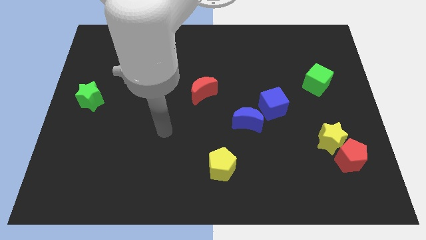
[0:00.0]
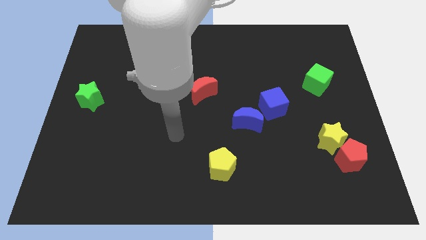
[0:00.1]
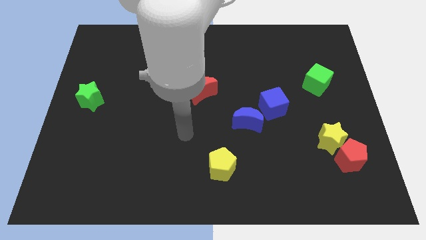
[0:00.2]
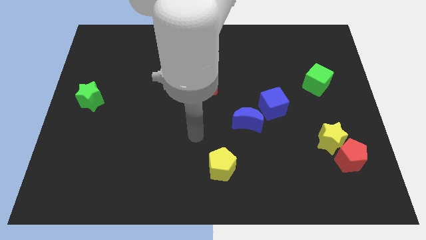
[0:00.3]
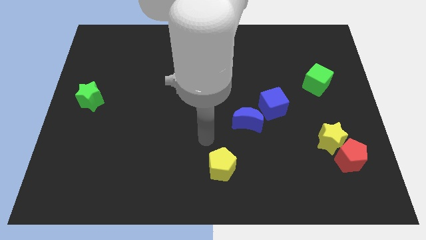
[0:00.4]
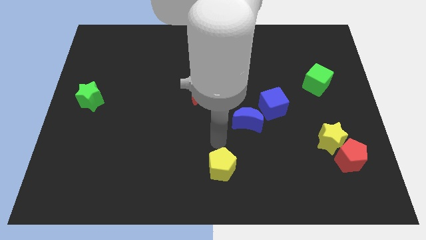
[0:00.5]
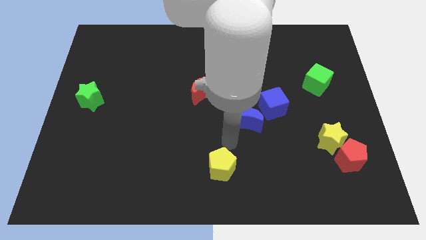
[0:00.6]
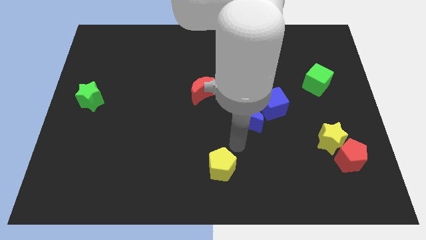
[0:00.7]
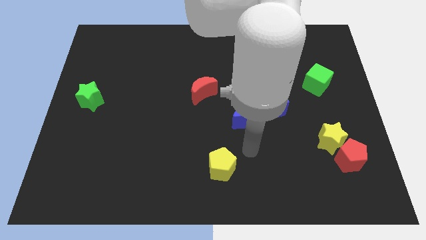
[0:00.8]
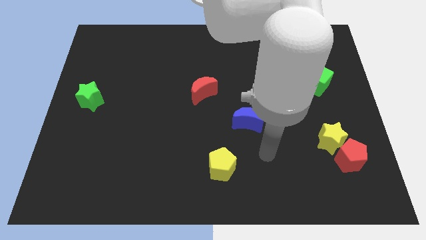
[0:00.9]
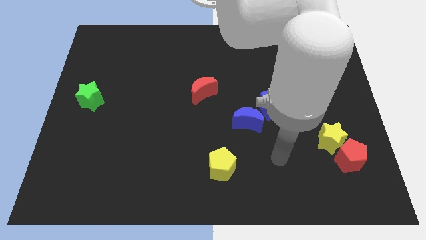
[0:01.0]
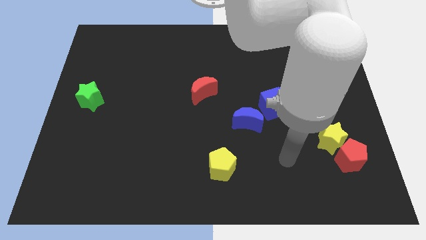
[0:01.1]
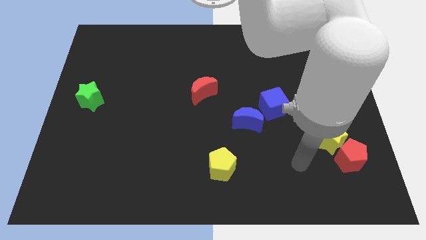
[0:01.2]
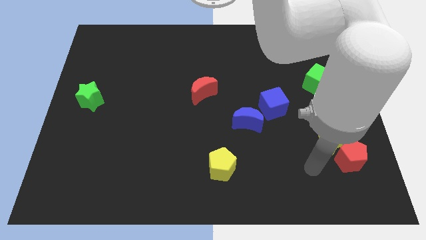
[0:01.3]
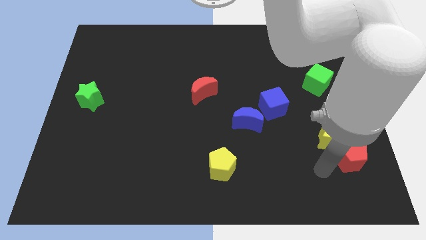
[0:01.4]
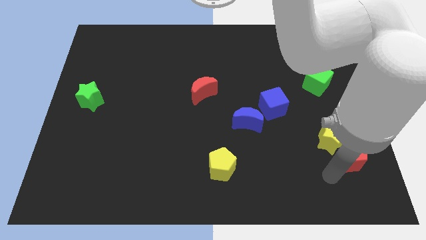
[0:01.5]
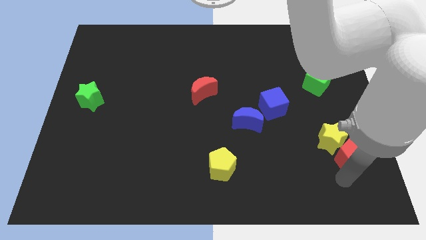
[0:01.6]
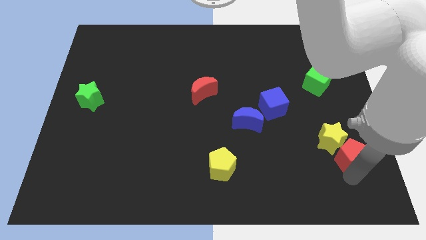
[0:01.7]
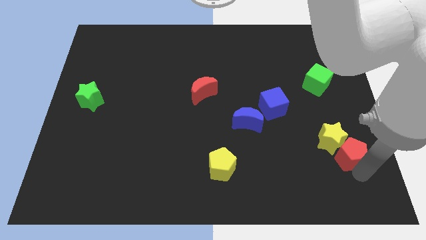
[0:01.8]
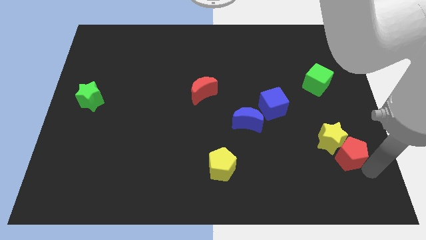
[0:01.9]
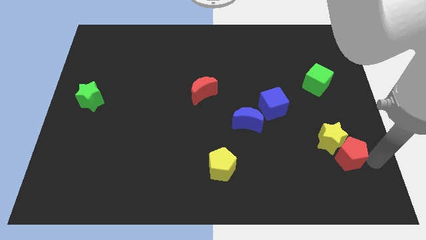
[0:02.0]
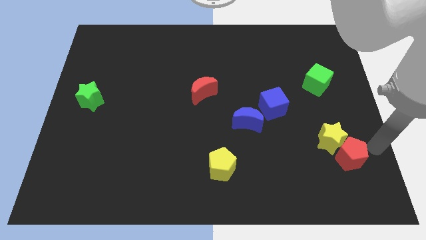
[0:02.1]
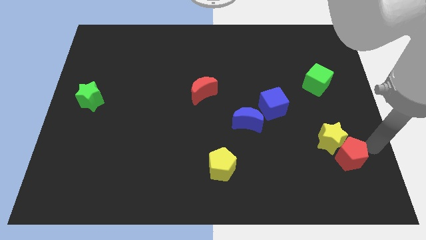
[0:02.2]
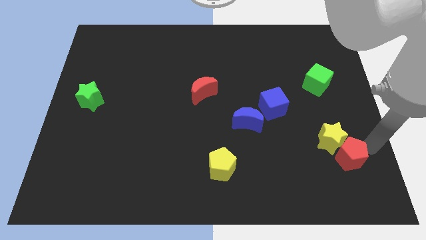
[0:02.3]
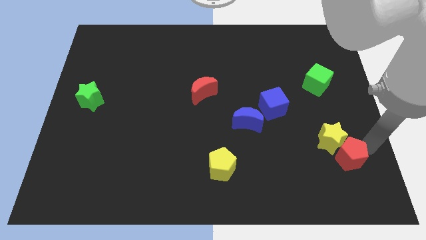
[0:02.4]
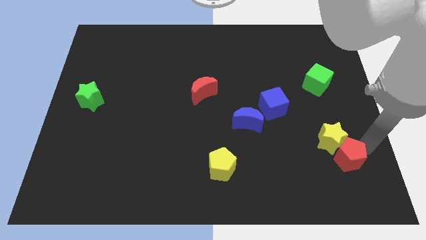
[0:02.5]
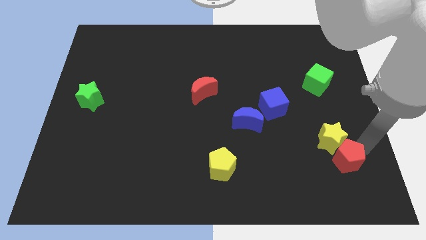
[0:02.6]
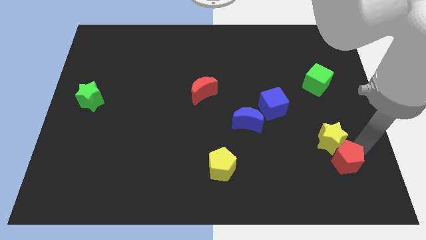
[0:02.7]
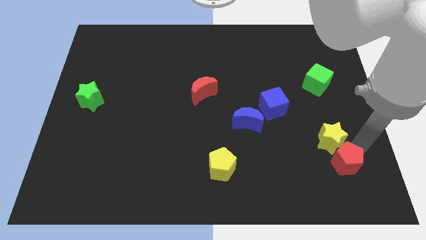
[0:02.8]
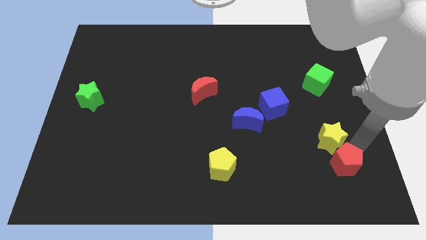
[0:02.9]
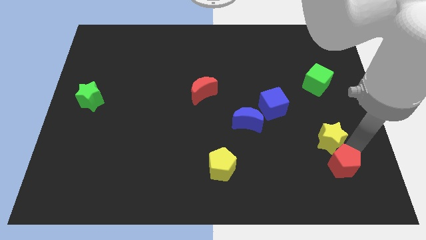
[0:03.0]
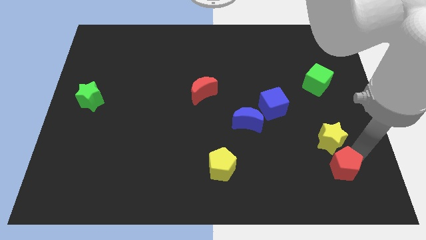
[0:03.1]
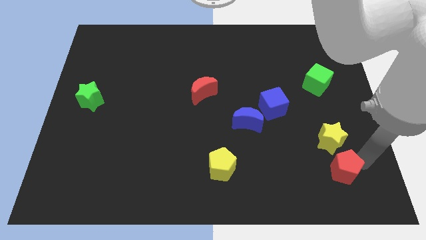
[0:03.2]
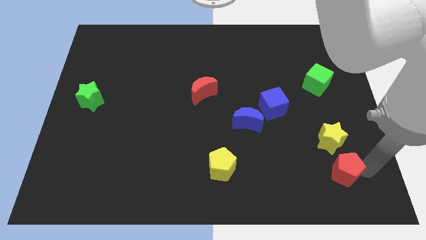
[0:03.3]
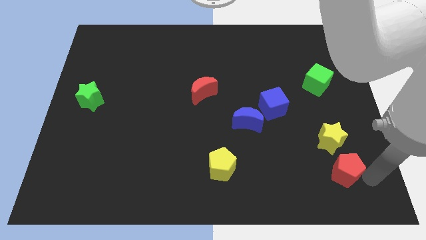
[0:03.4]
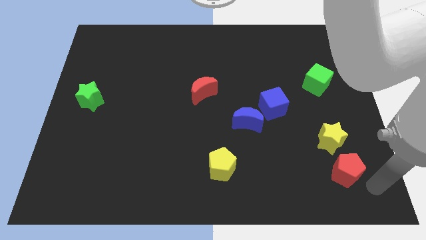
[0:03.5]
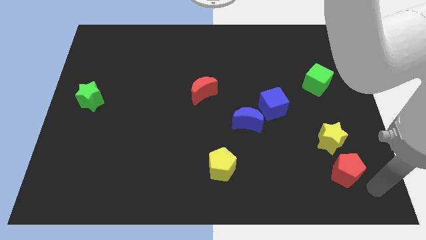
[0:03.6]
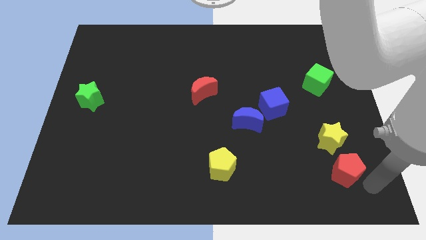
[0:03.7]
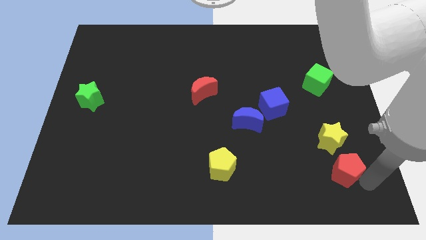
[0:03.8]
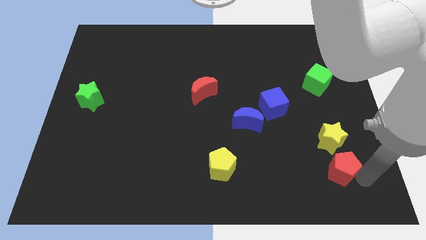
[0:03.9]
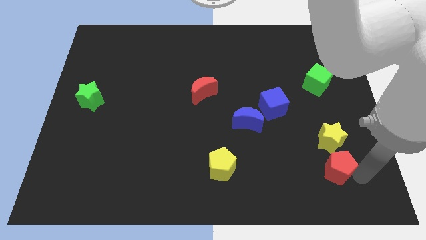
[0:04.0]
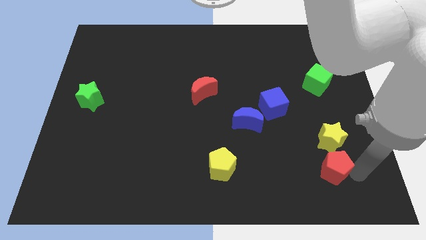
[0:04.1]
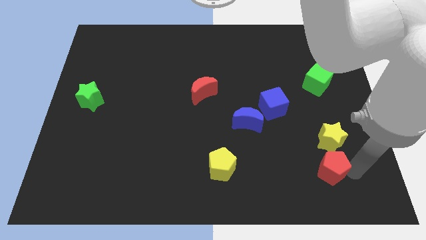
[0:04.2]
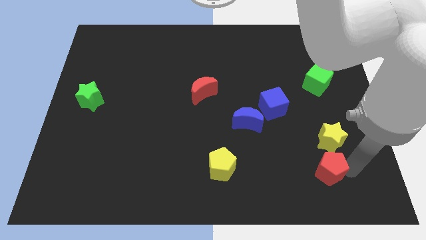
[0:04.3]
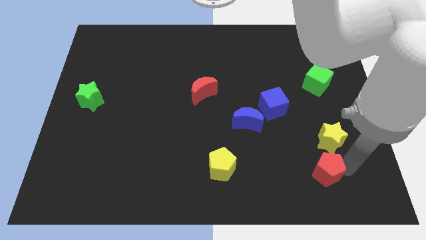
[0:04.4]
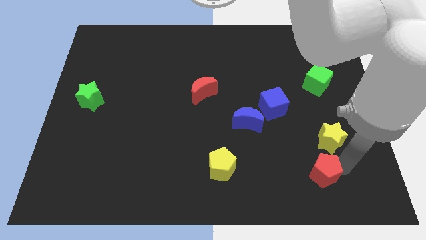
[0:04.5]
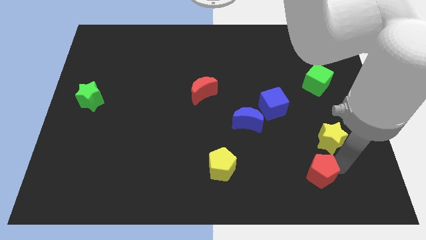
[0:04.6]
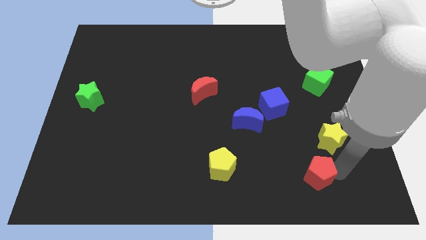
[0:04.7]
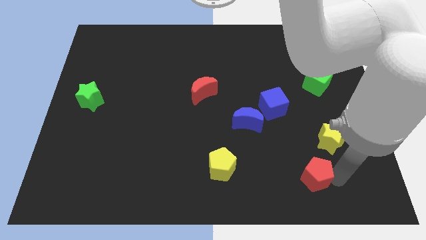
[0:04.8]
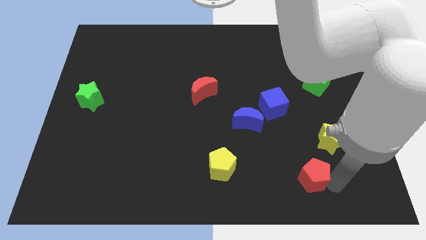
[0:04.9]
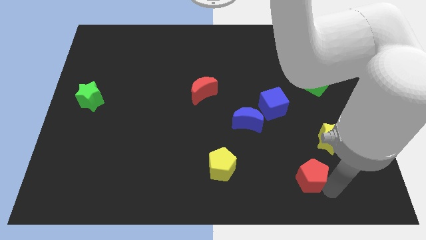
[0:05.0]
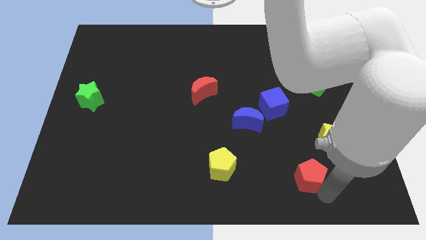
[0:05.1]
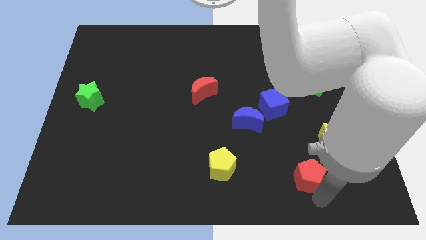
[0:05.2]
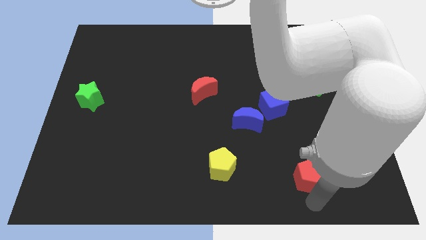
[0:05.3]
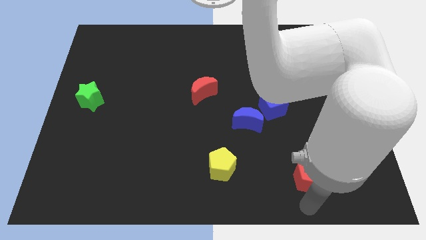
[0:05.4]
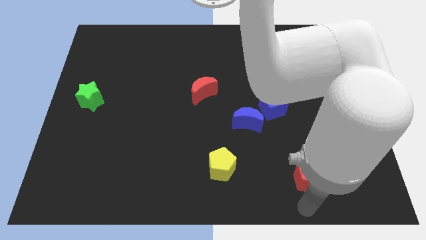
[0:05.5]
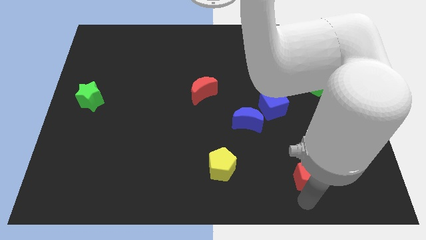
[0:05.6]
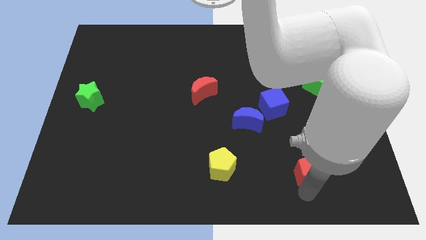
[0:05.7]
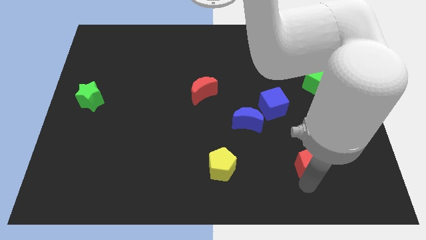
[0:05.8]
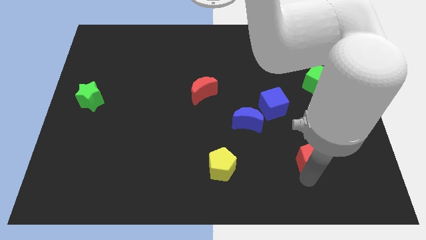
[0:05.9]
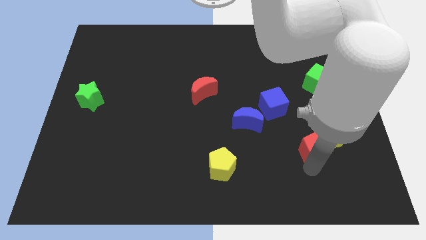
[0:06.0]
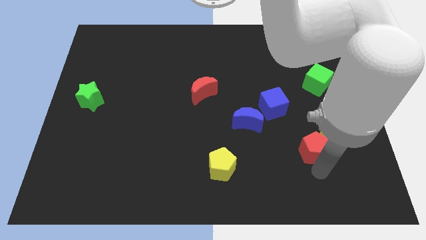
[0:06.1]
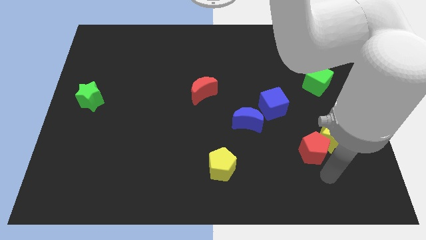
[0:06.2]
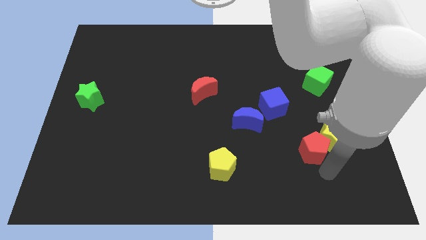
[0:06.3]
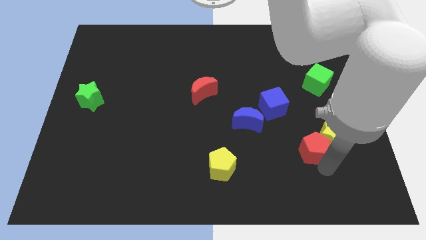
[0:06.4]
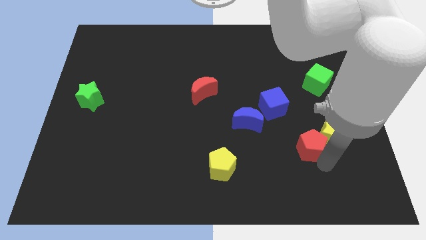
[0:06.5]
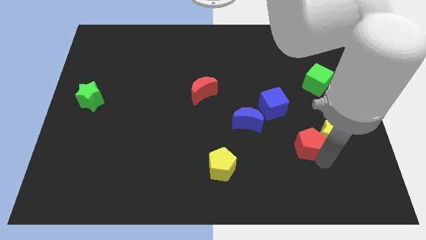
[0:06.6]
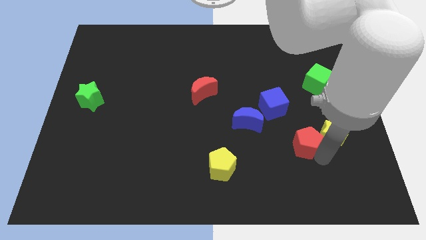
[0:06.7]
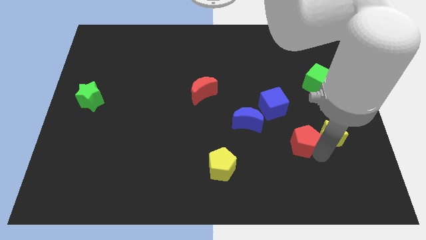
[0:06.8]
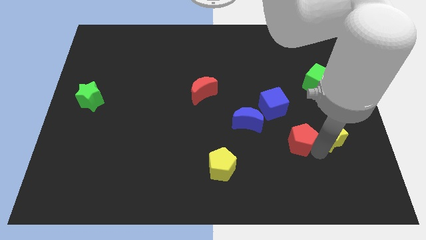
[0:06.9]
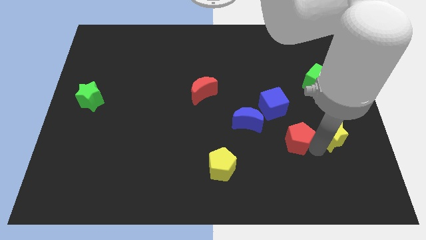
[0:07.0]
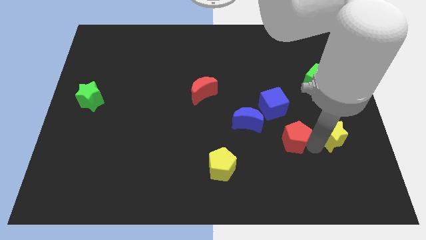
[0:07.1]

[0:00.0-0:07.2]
slide the red pentagon to the right side of the blue moon
